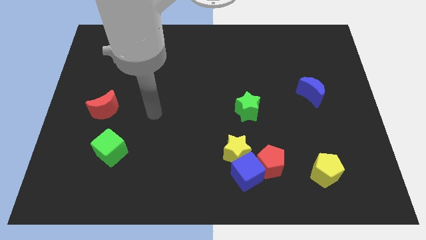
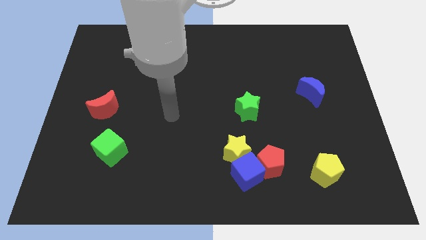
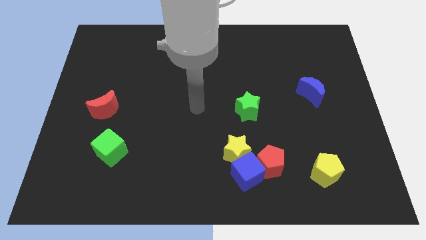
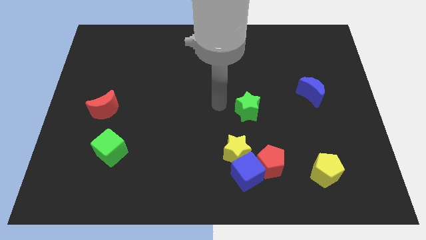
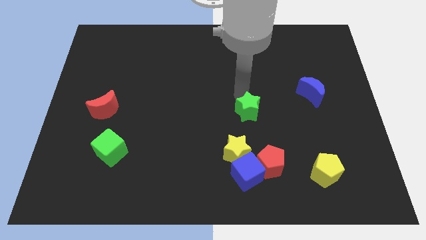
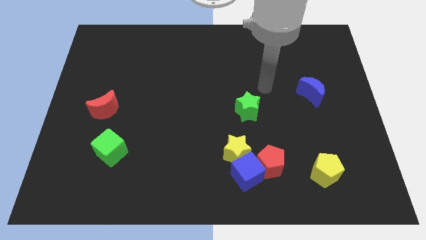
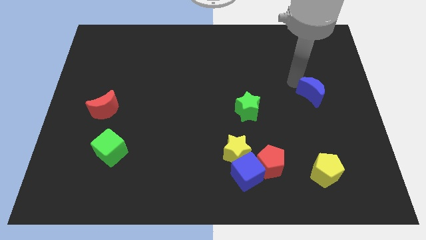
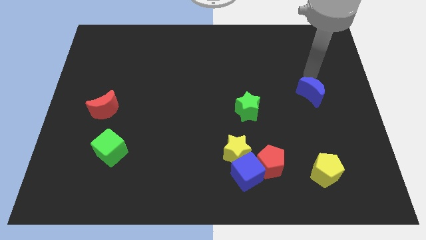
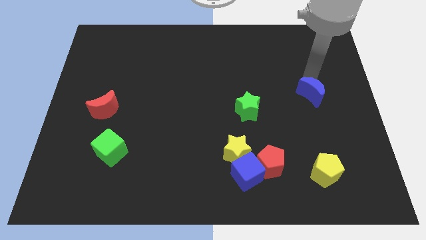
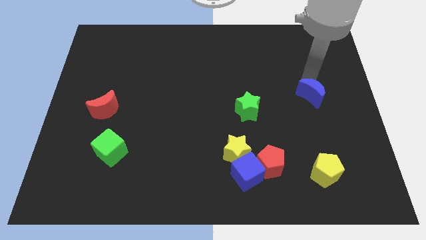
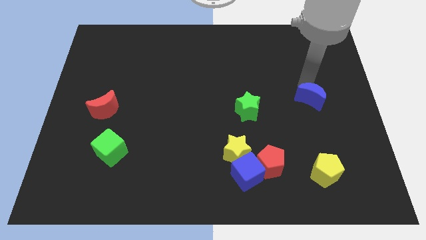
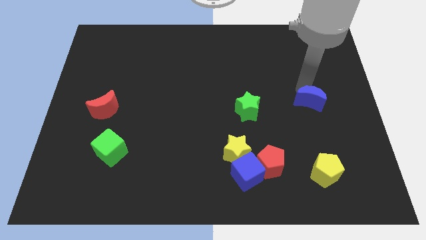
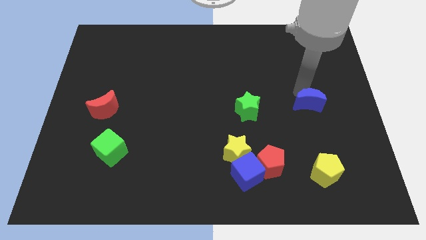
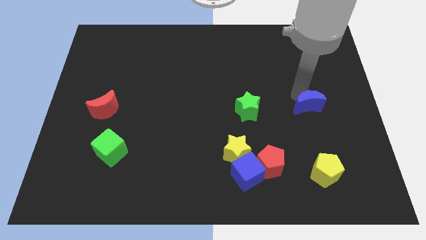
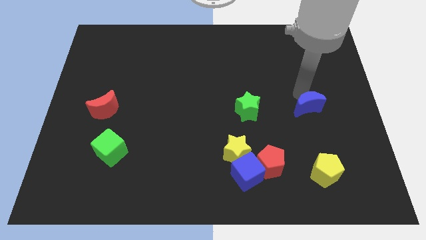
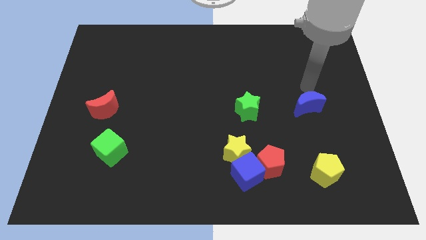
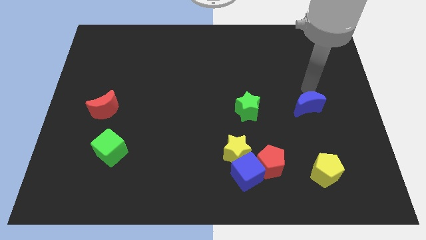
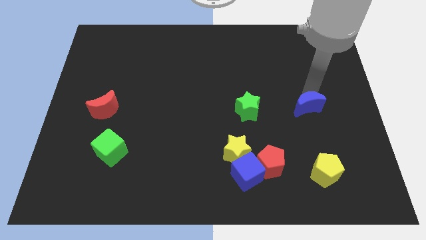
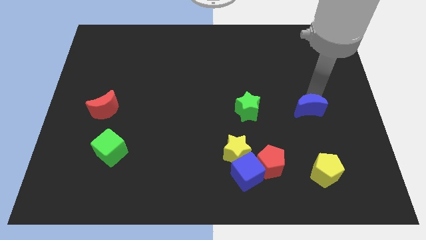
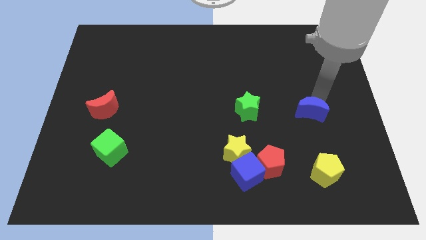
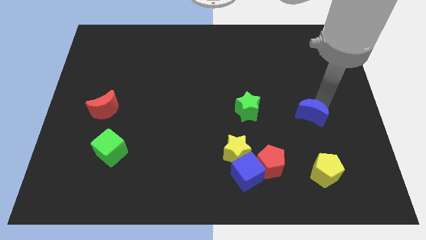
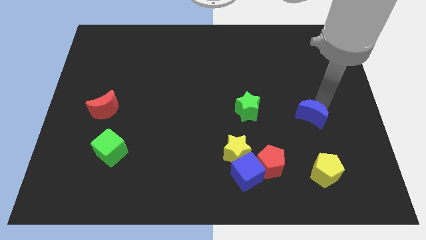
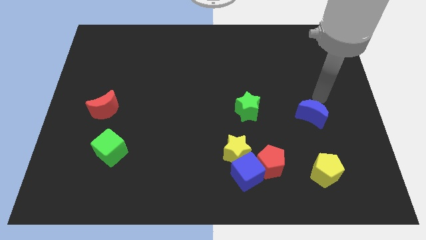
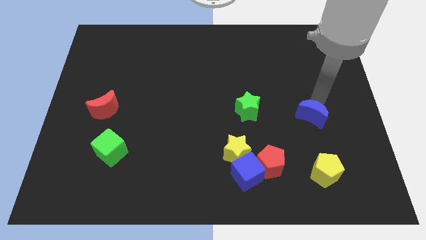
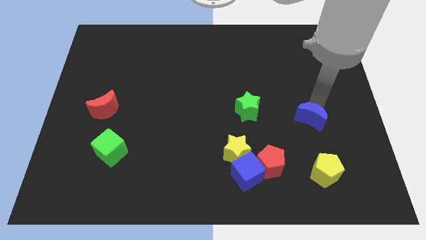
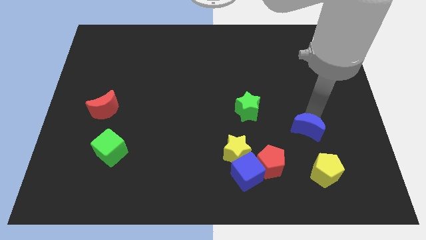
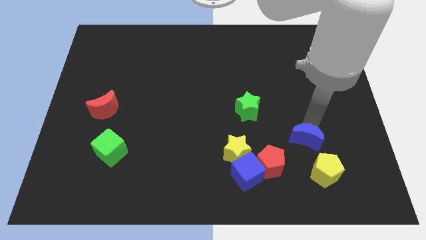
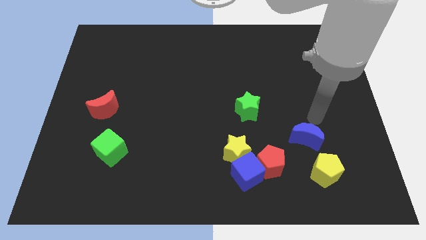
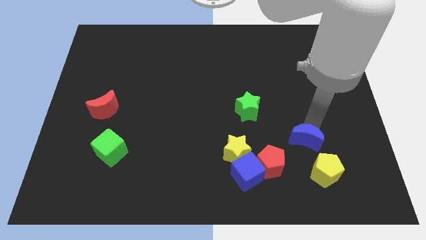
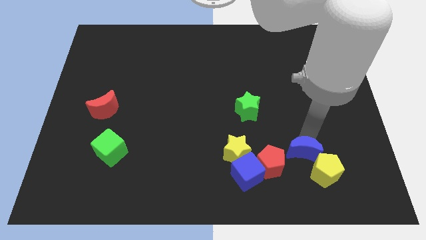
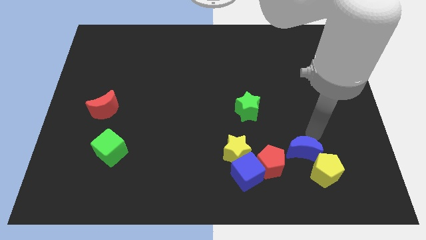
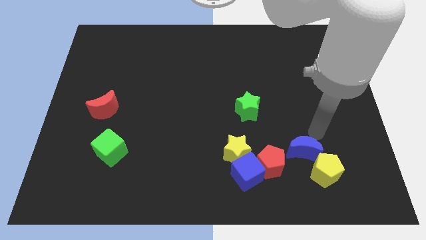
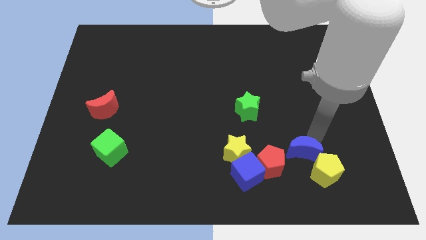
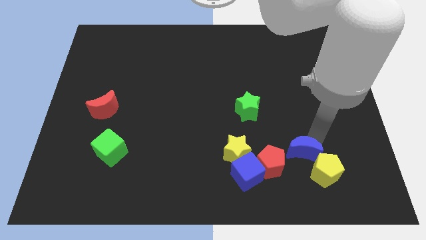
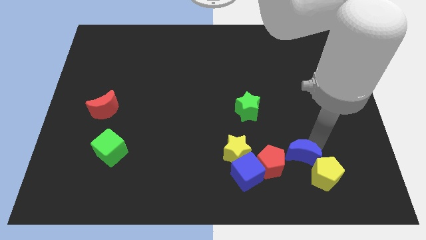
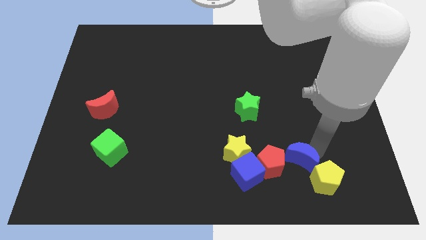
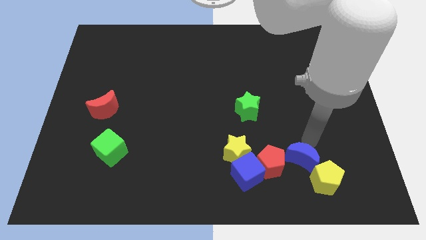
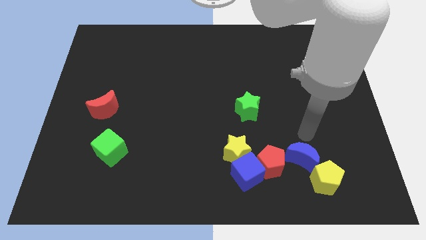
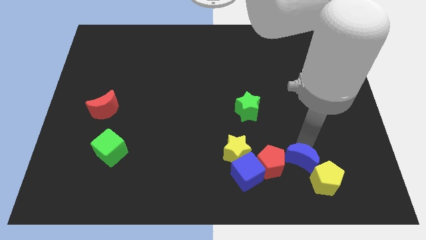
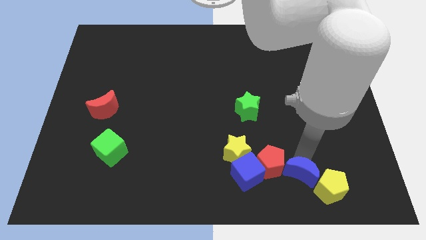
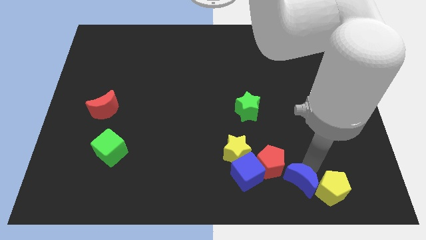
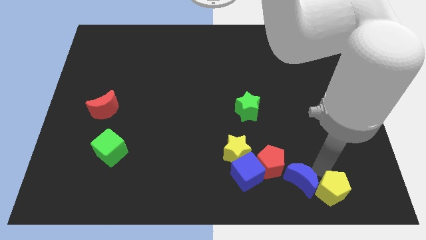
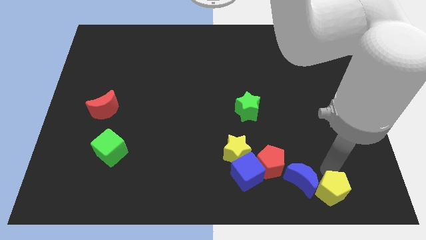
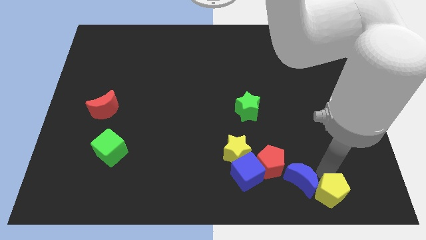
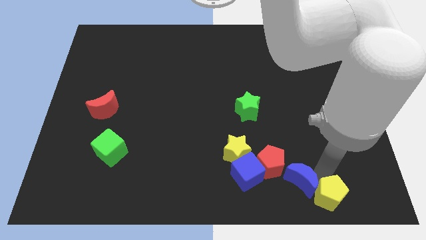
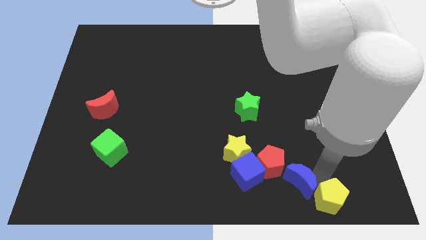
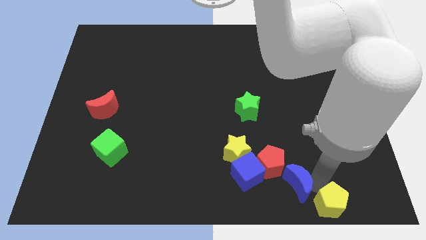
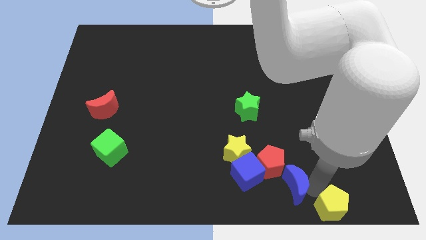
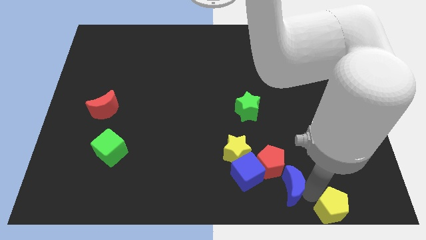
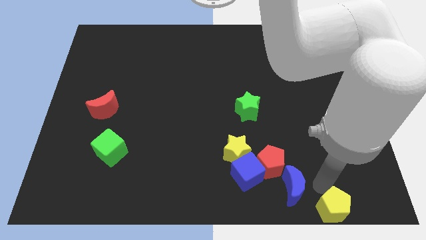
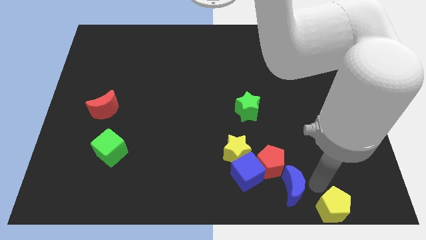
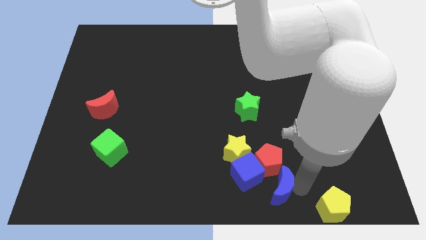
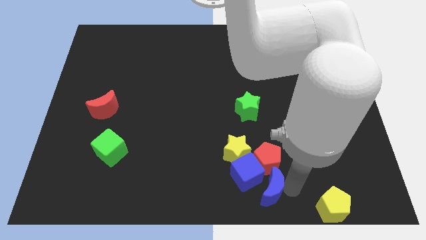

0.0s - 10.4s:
push the blue moon to the bottom side

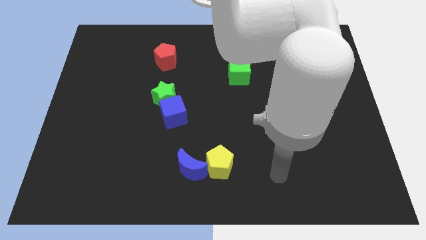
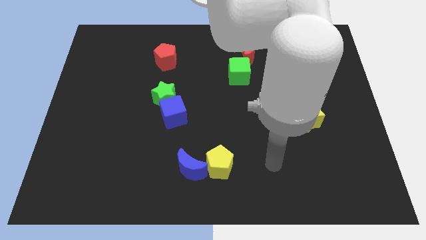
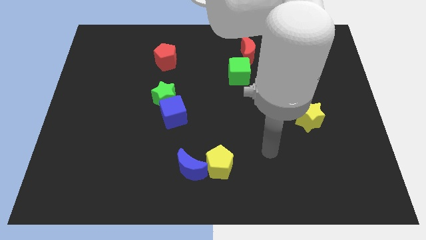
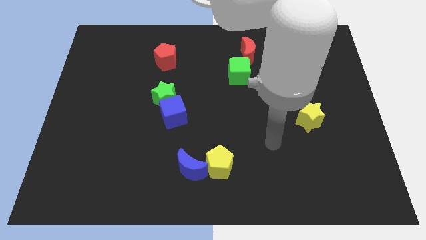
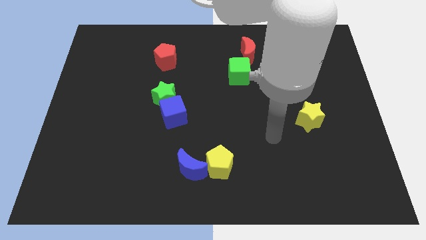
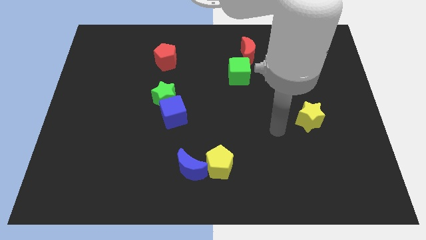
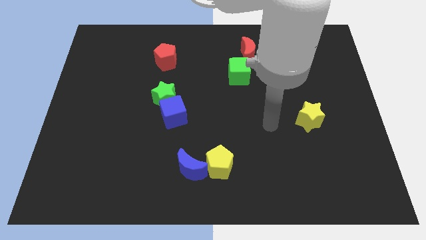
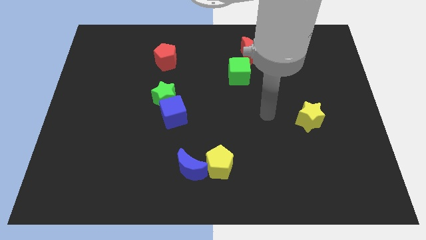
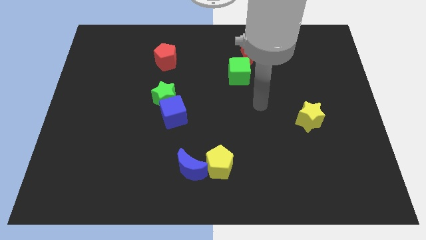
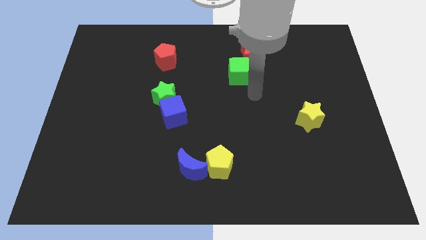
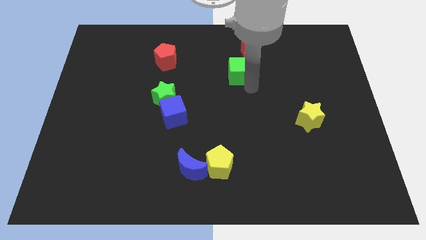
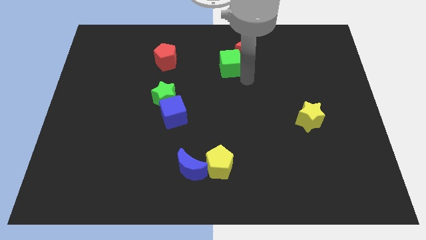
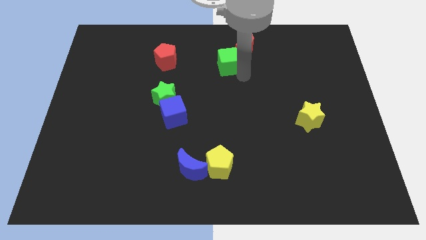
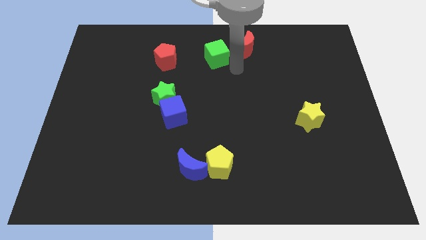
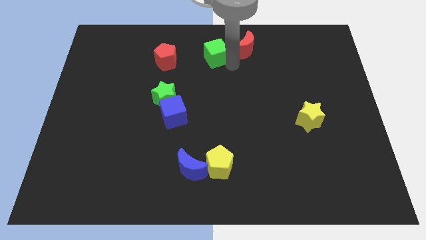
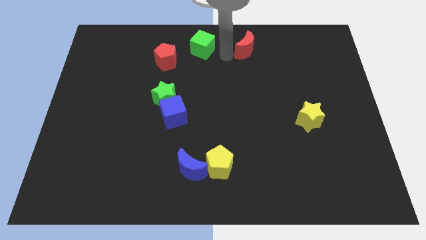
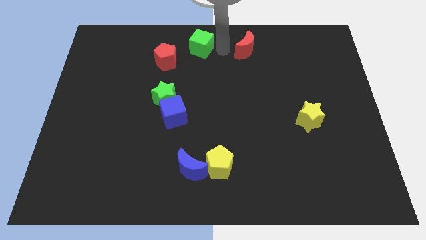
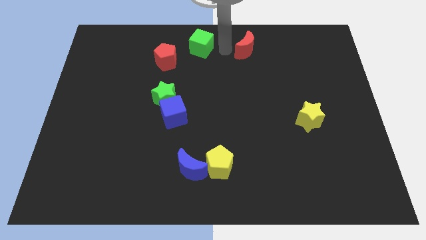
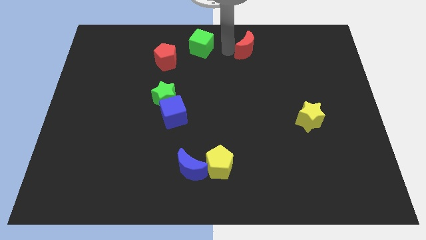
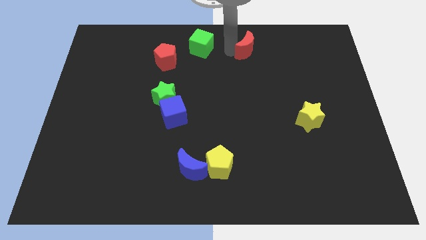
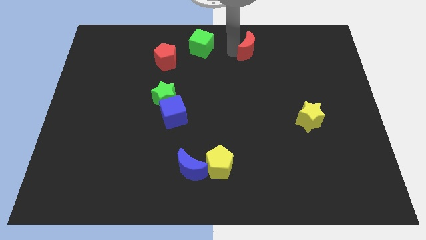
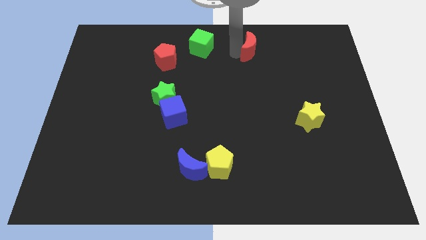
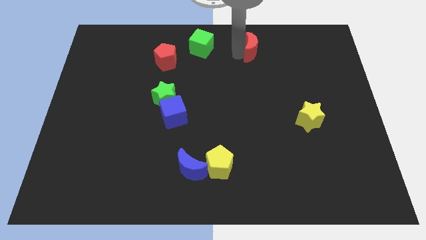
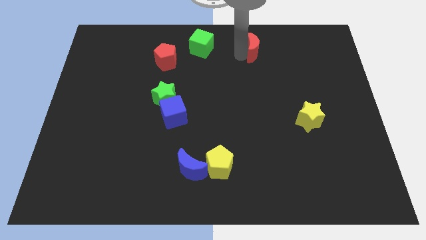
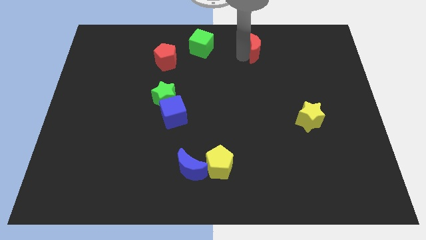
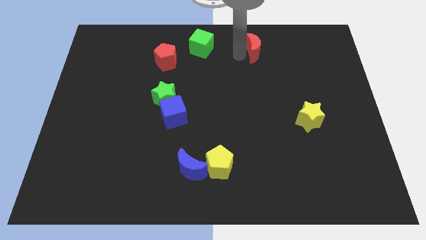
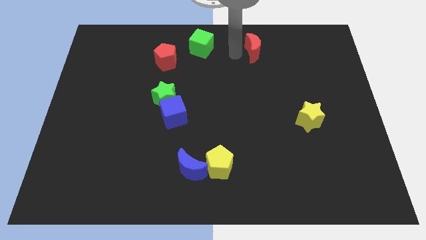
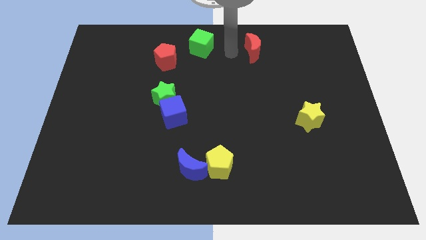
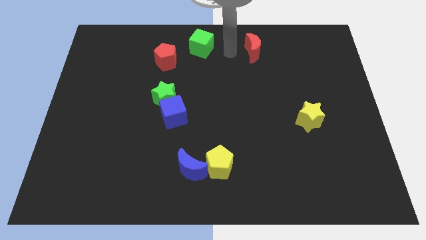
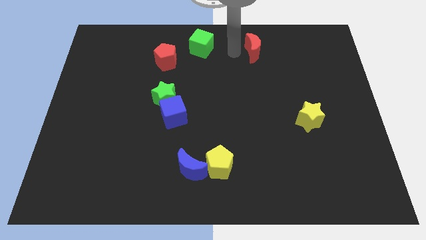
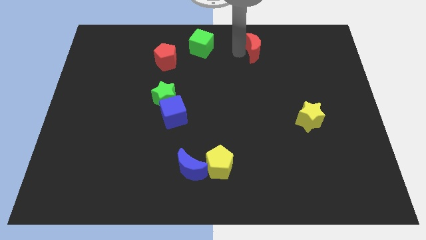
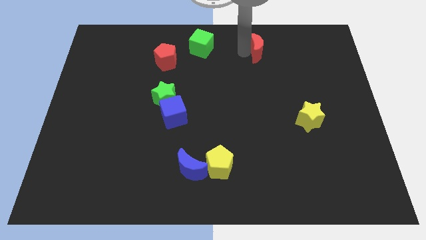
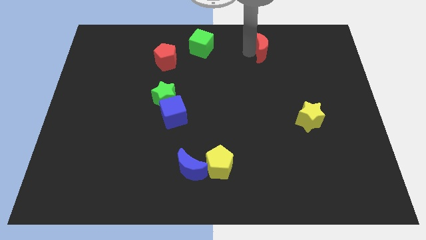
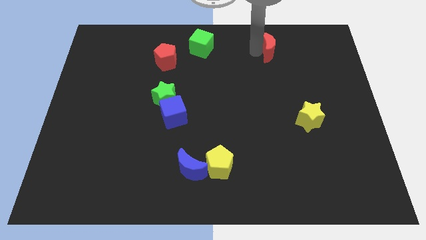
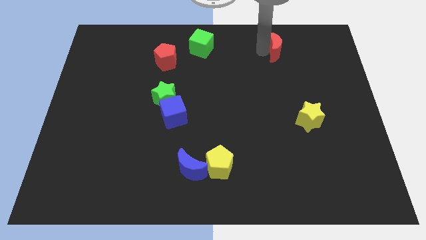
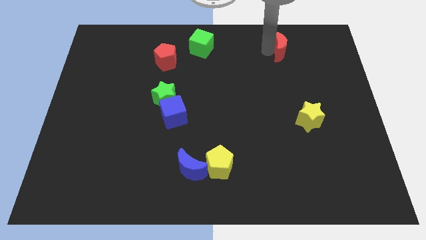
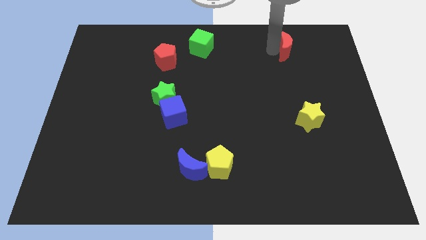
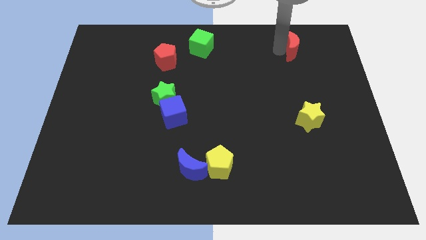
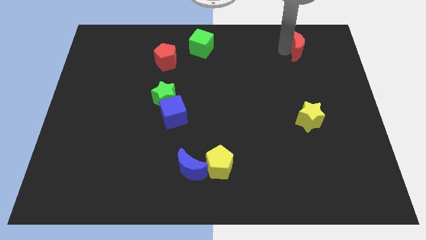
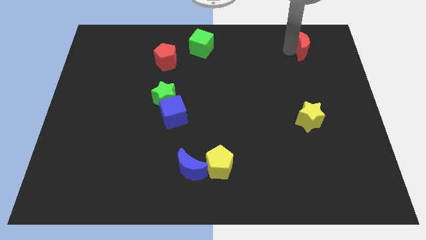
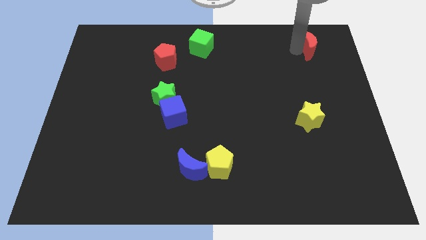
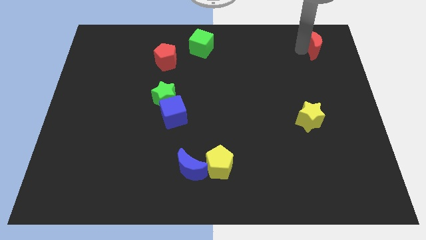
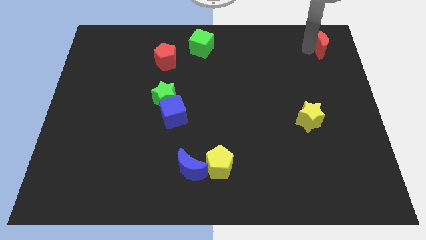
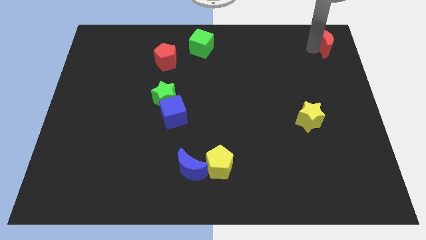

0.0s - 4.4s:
move the red moon to the top right
